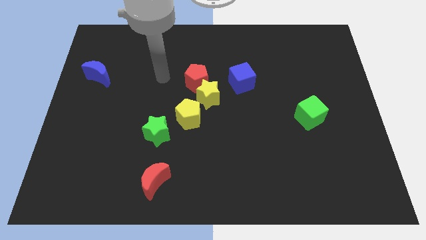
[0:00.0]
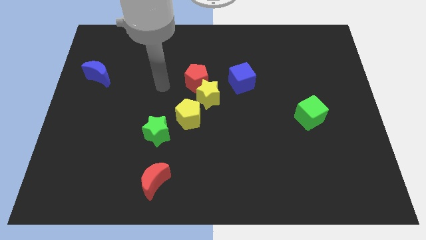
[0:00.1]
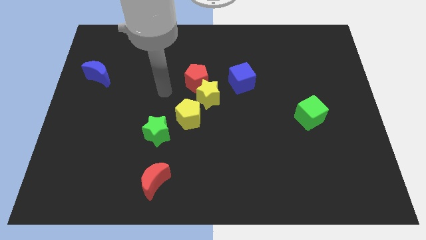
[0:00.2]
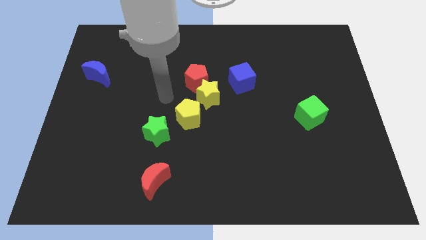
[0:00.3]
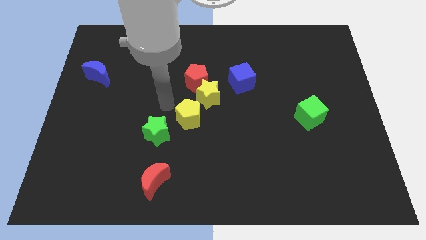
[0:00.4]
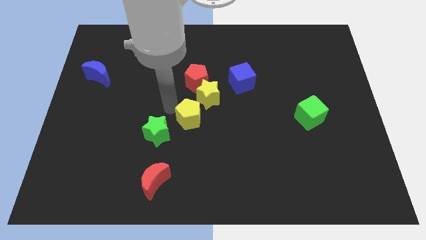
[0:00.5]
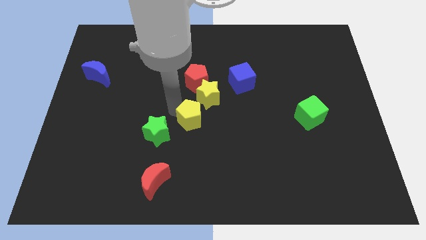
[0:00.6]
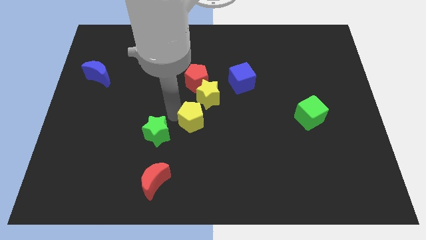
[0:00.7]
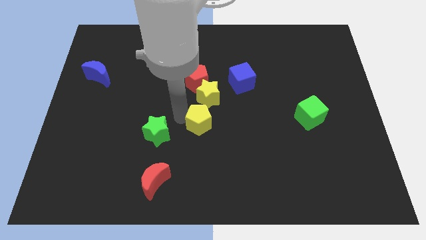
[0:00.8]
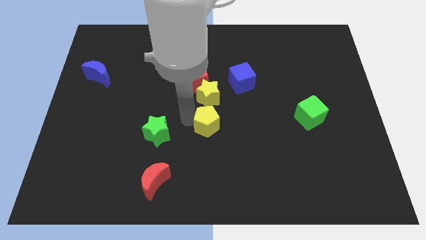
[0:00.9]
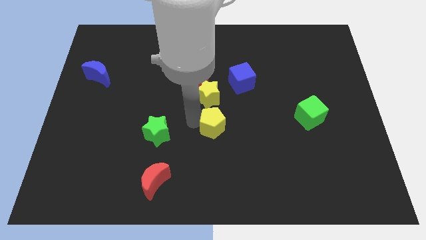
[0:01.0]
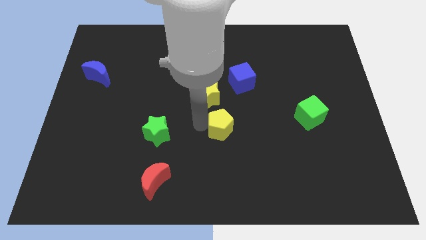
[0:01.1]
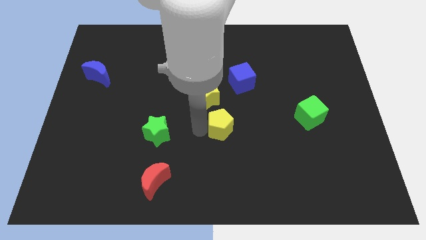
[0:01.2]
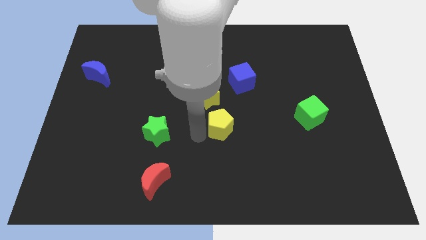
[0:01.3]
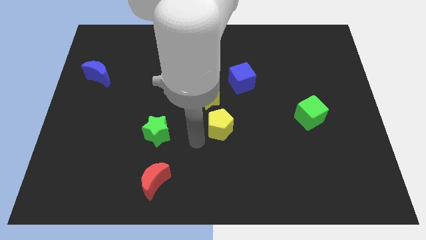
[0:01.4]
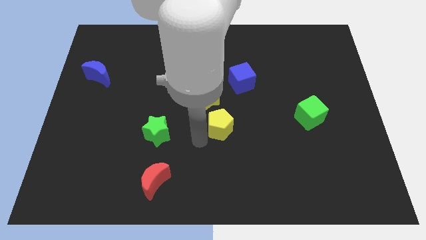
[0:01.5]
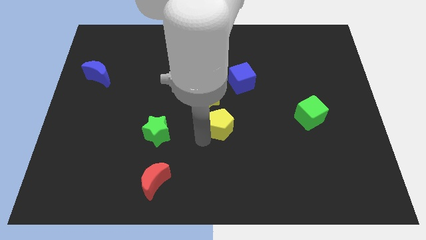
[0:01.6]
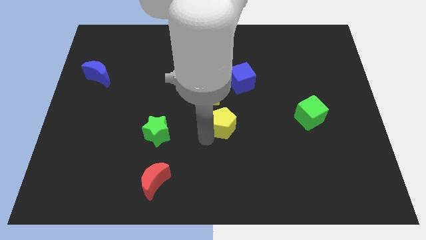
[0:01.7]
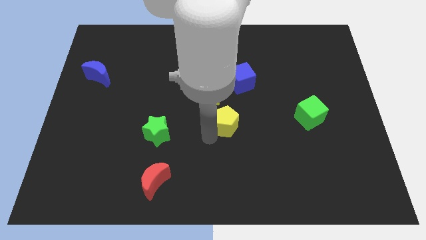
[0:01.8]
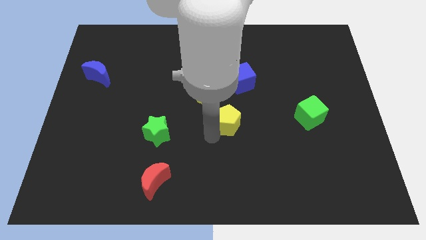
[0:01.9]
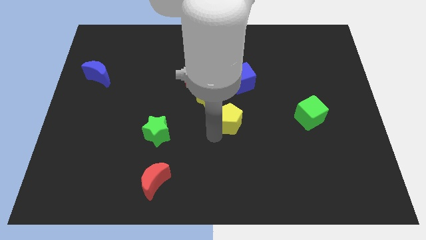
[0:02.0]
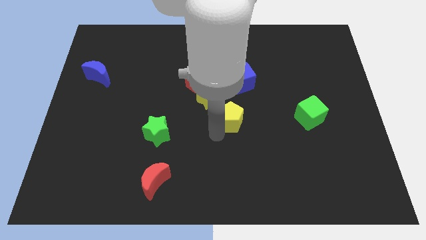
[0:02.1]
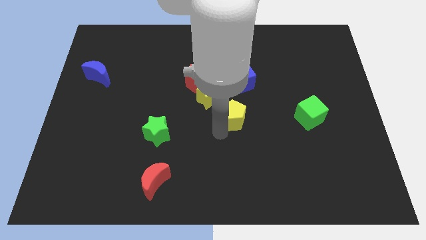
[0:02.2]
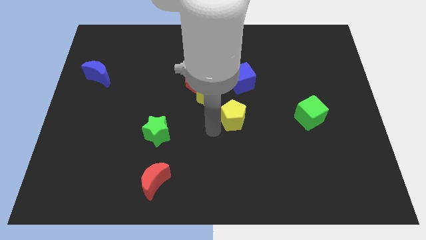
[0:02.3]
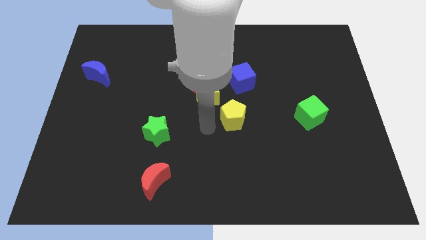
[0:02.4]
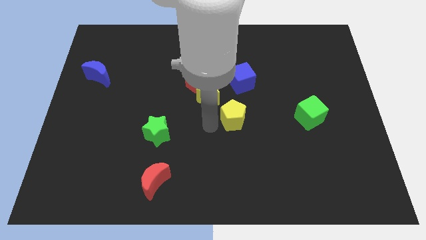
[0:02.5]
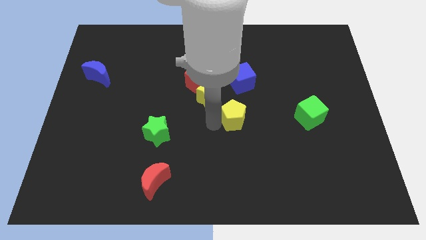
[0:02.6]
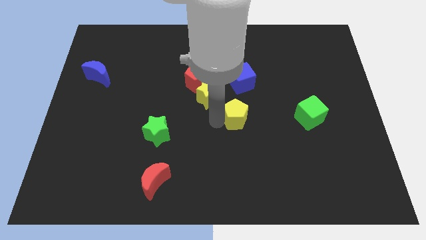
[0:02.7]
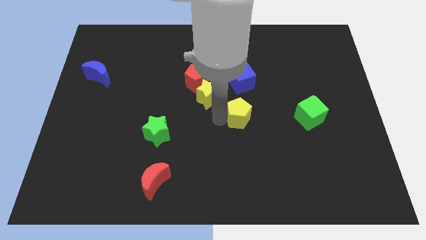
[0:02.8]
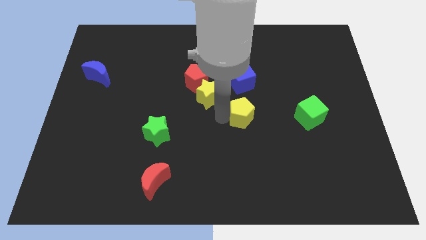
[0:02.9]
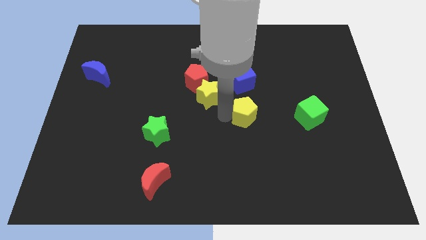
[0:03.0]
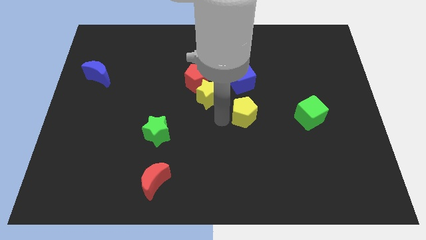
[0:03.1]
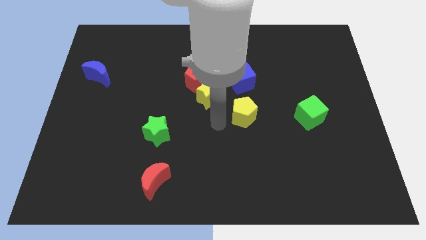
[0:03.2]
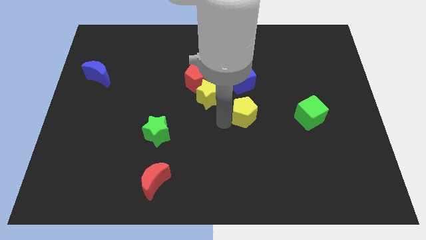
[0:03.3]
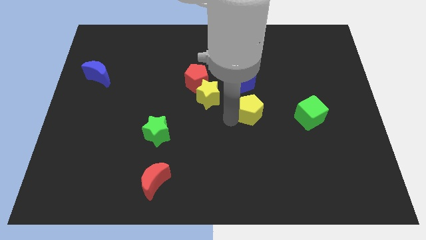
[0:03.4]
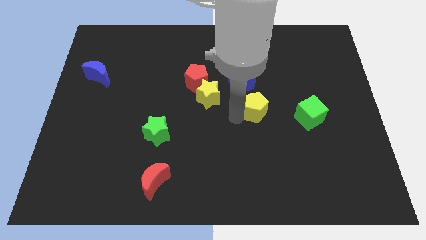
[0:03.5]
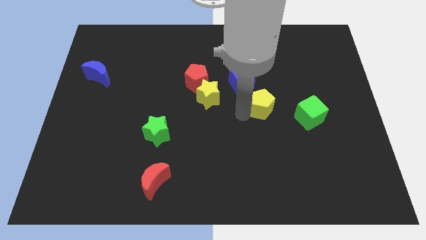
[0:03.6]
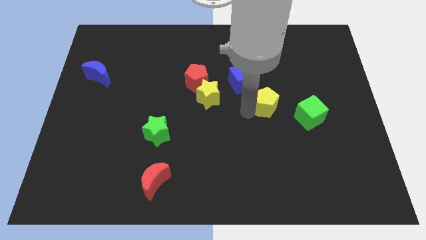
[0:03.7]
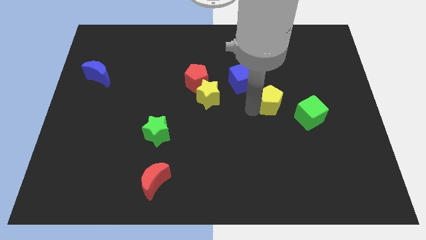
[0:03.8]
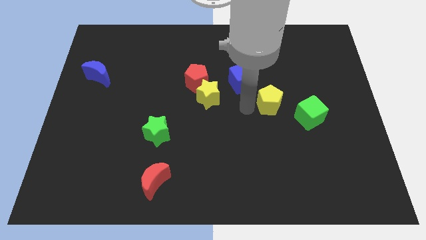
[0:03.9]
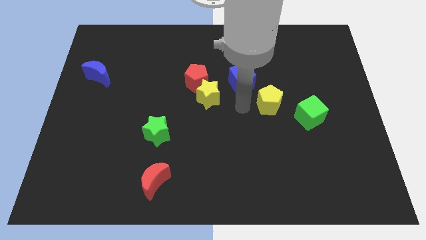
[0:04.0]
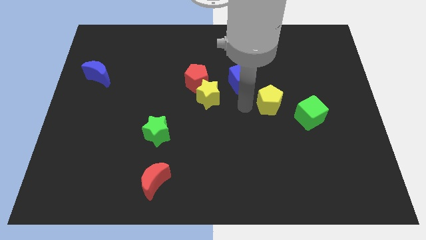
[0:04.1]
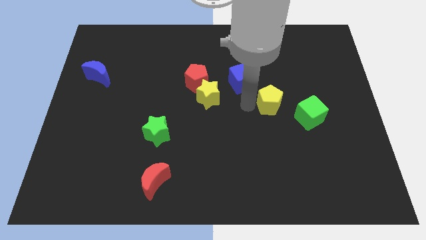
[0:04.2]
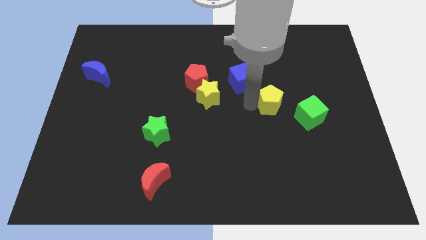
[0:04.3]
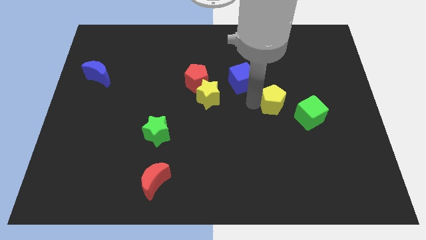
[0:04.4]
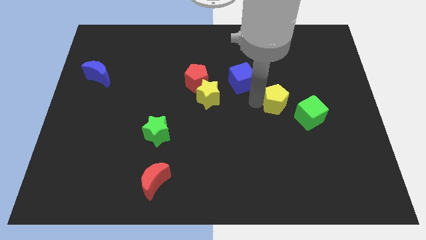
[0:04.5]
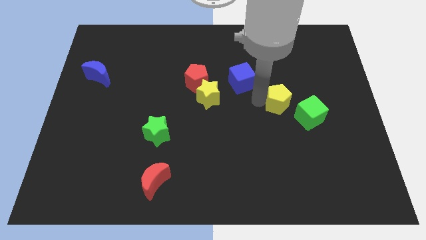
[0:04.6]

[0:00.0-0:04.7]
slide the yellow pentagon right

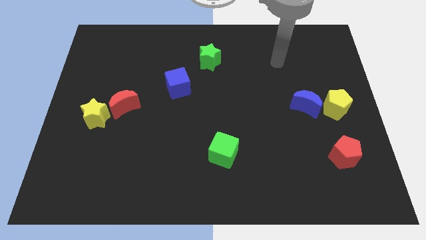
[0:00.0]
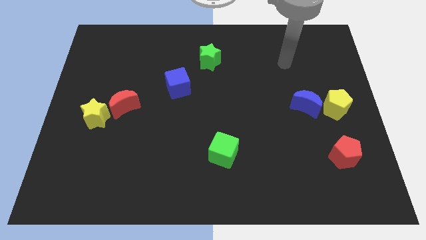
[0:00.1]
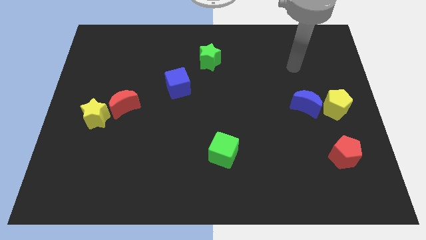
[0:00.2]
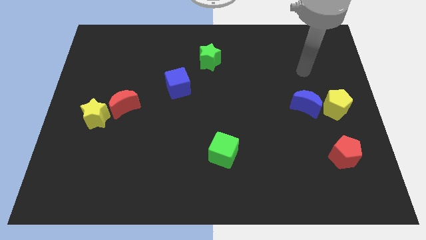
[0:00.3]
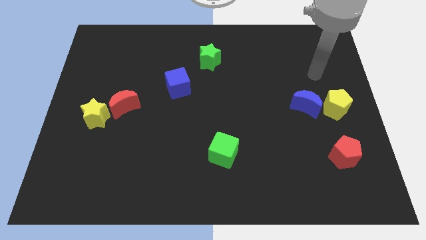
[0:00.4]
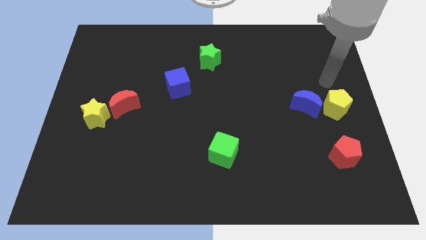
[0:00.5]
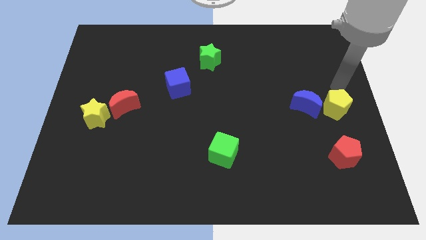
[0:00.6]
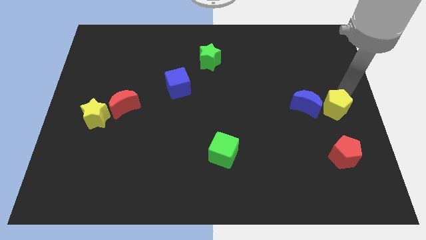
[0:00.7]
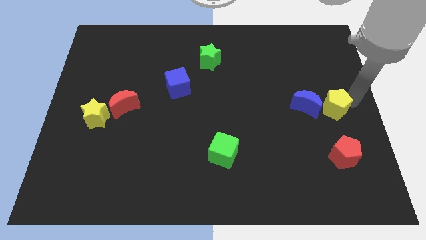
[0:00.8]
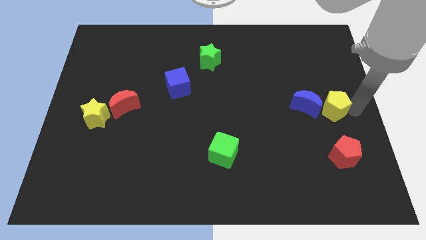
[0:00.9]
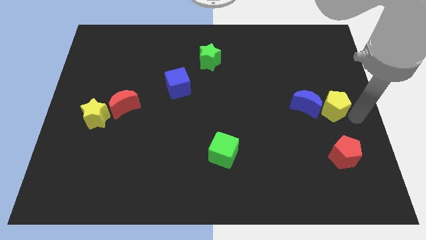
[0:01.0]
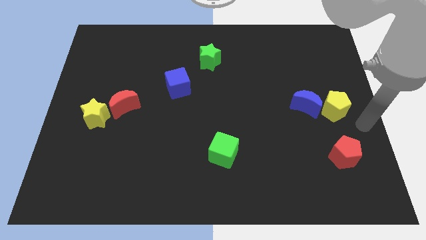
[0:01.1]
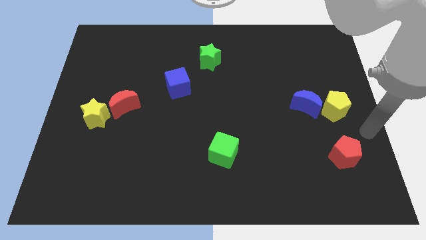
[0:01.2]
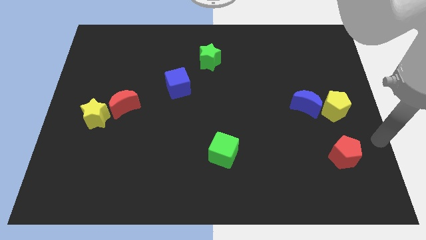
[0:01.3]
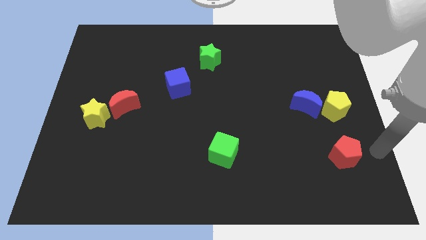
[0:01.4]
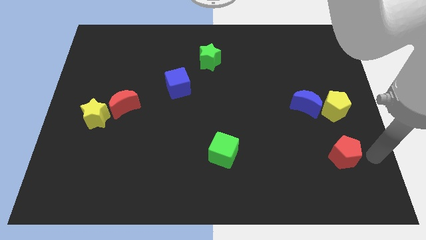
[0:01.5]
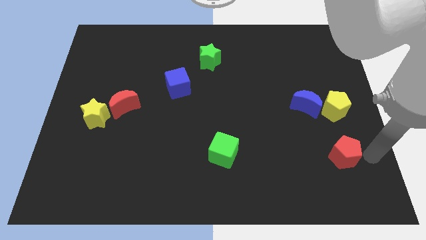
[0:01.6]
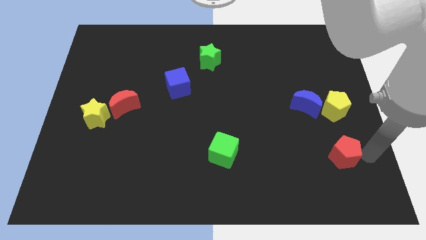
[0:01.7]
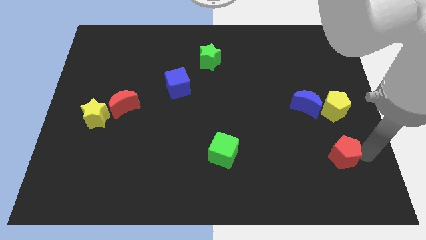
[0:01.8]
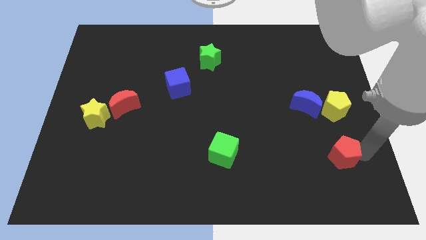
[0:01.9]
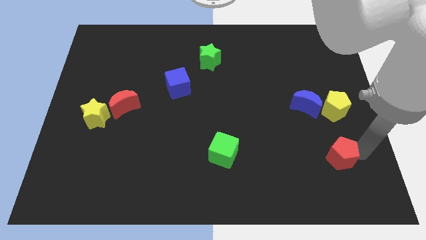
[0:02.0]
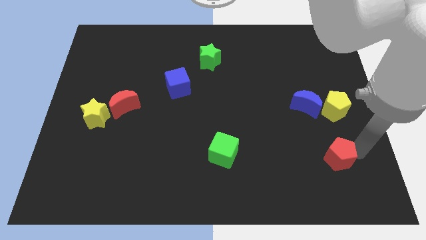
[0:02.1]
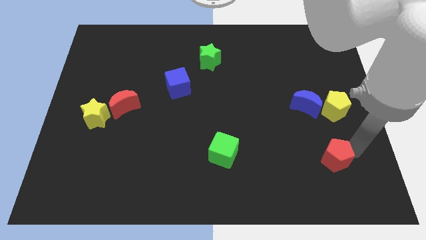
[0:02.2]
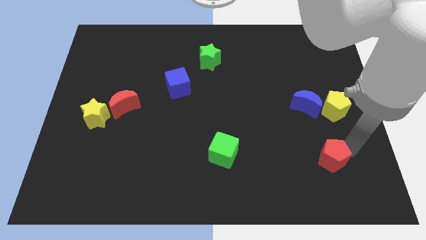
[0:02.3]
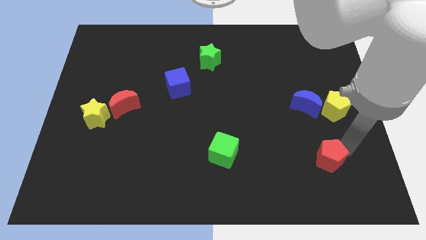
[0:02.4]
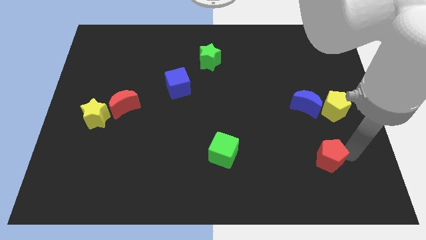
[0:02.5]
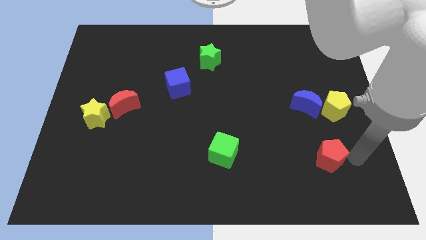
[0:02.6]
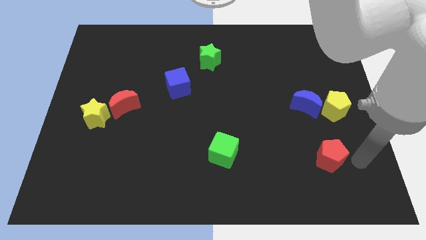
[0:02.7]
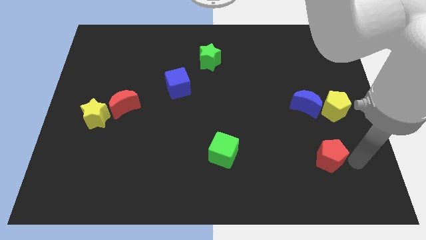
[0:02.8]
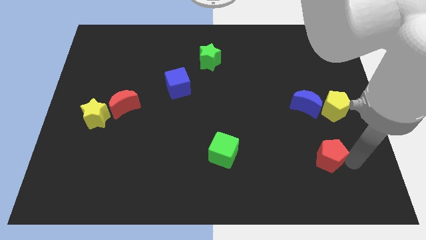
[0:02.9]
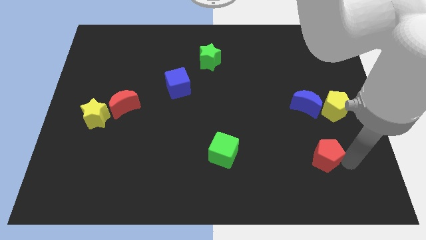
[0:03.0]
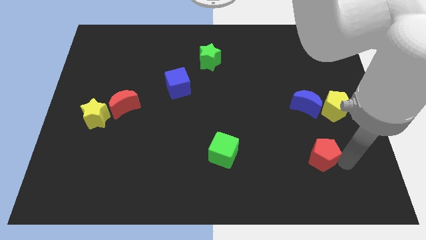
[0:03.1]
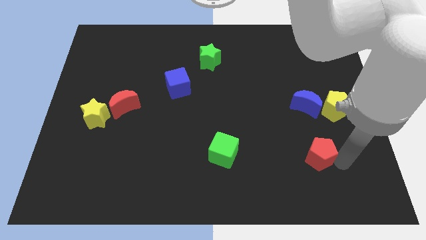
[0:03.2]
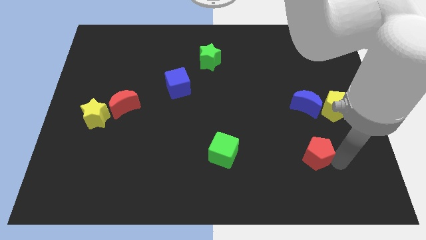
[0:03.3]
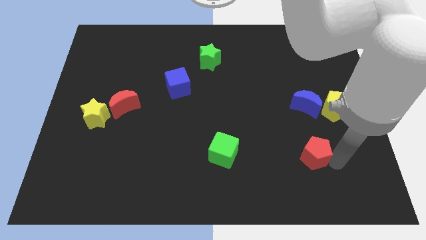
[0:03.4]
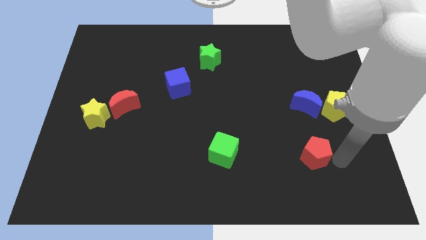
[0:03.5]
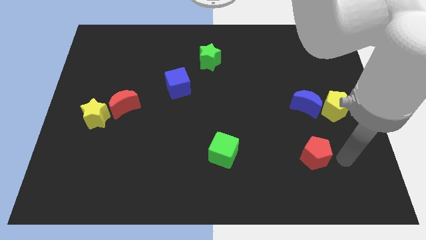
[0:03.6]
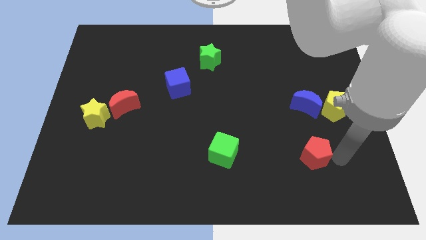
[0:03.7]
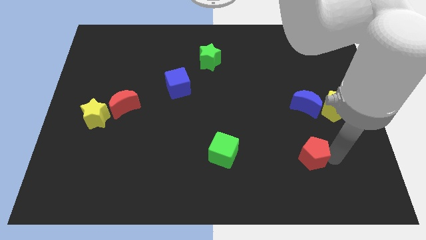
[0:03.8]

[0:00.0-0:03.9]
slightly slide the red pentagon to the left
